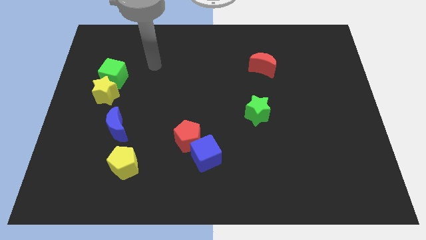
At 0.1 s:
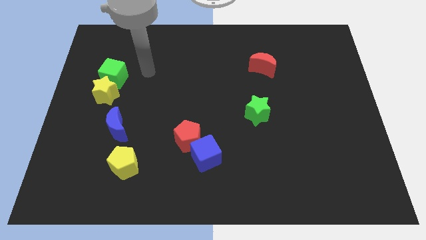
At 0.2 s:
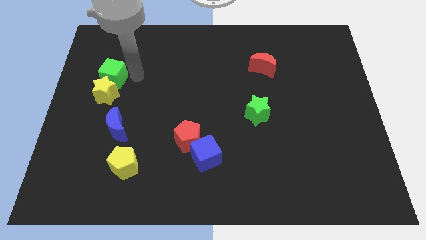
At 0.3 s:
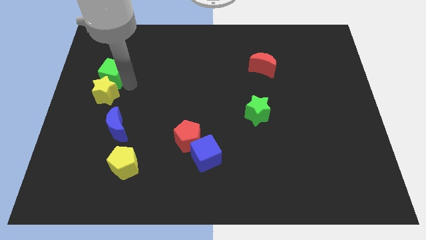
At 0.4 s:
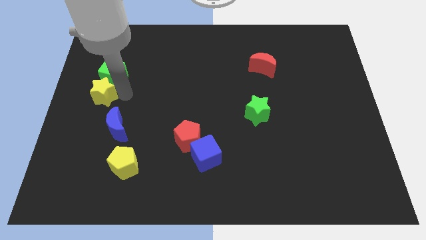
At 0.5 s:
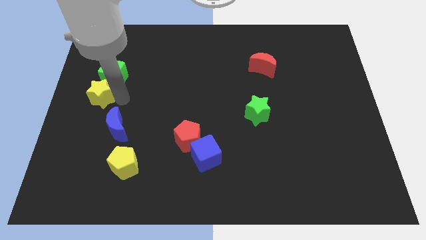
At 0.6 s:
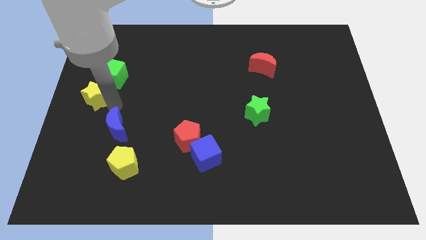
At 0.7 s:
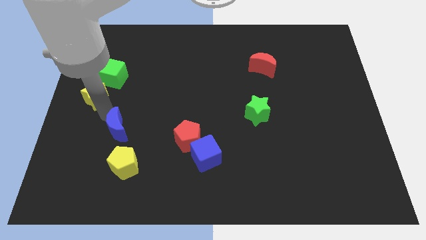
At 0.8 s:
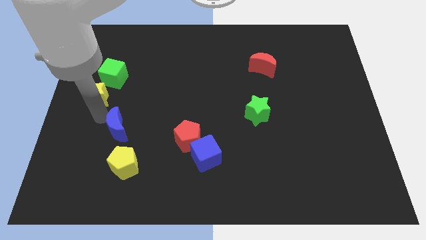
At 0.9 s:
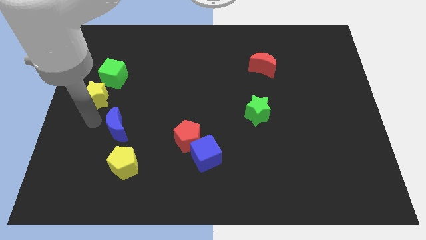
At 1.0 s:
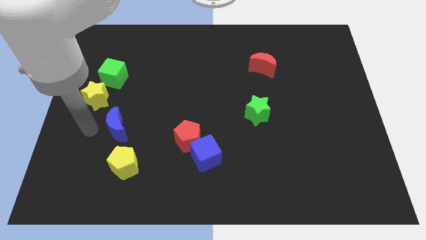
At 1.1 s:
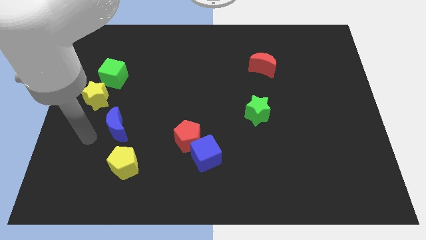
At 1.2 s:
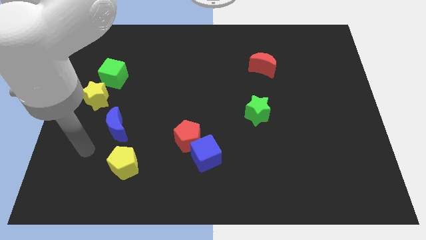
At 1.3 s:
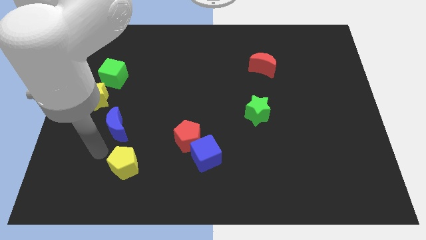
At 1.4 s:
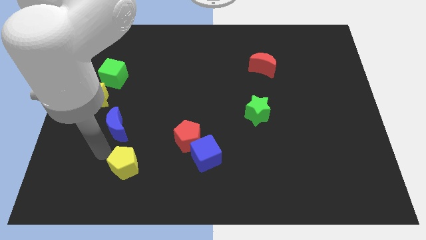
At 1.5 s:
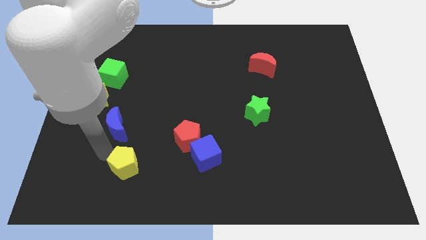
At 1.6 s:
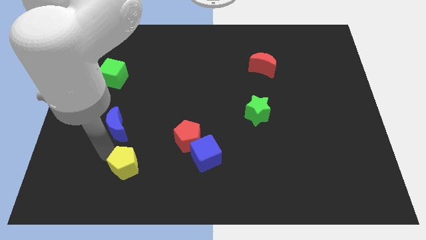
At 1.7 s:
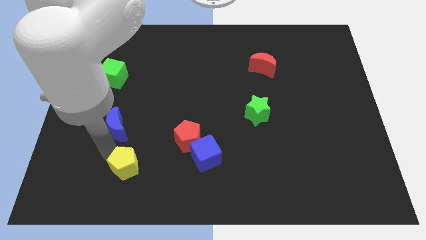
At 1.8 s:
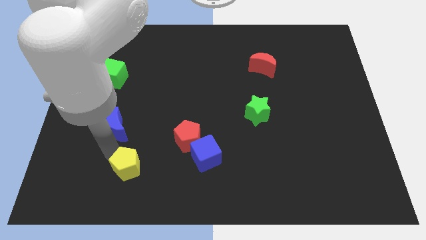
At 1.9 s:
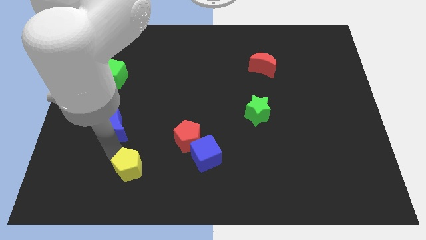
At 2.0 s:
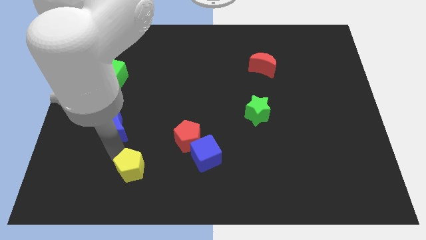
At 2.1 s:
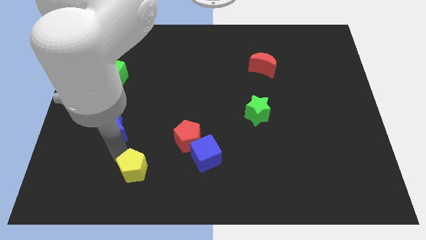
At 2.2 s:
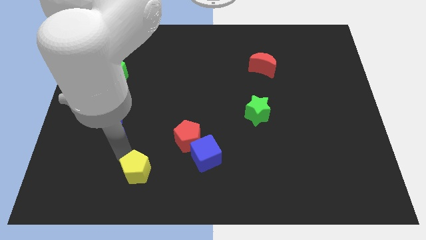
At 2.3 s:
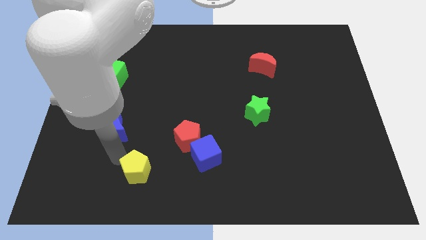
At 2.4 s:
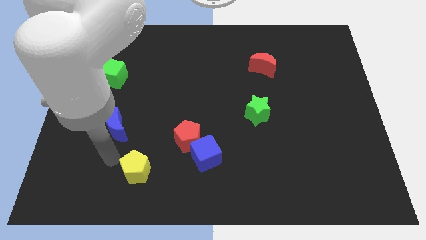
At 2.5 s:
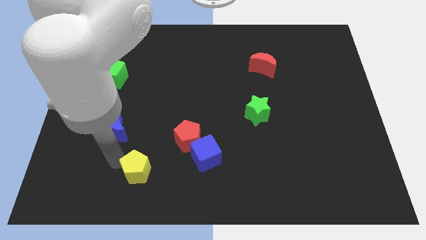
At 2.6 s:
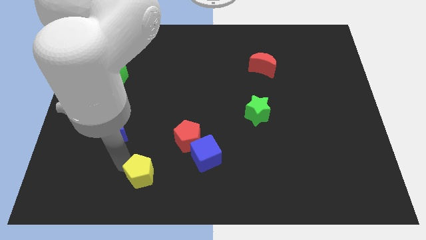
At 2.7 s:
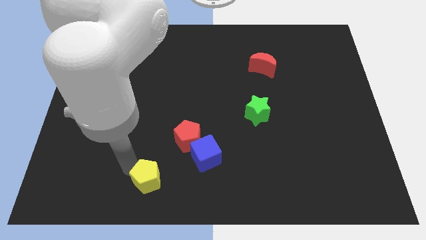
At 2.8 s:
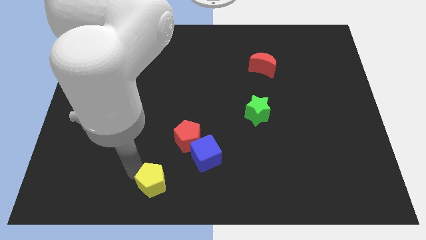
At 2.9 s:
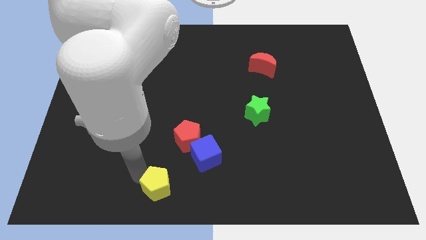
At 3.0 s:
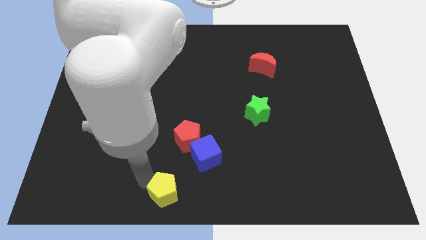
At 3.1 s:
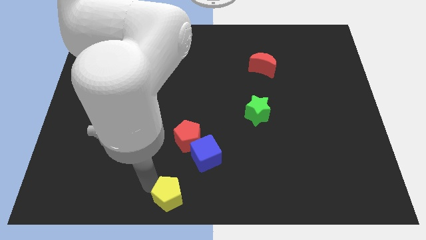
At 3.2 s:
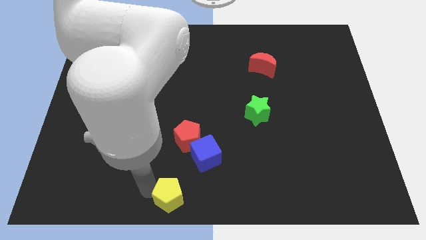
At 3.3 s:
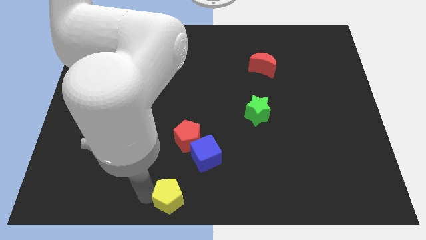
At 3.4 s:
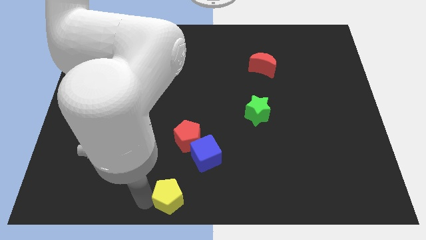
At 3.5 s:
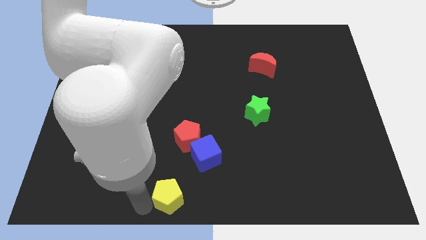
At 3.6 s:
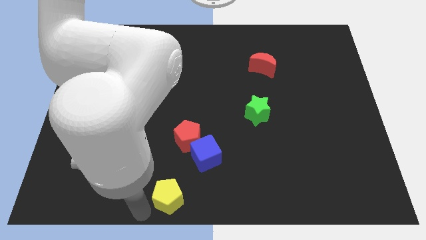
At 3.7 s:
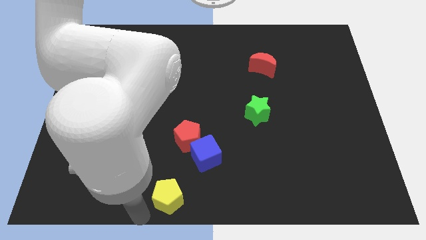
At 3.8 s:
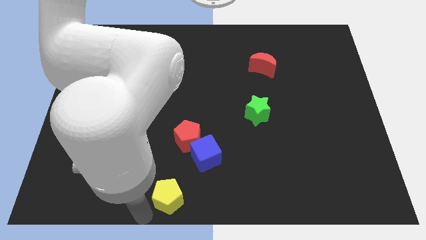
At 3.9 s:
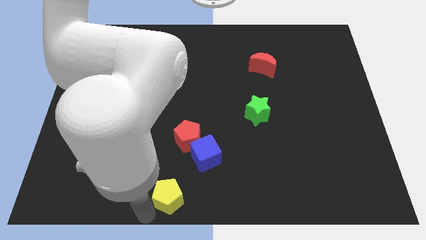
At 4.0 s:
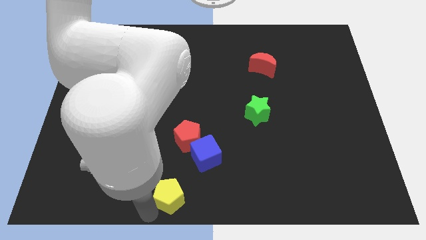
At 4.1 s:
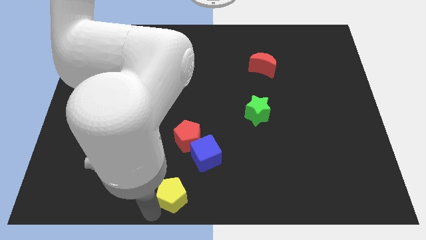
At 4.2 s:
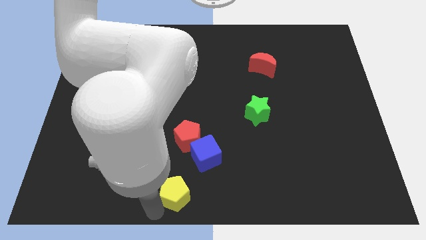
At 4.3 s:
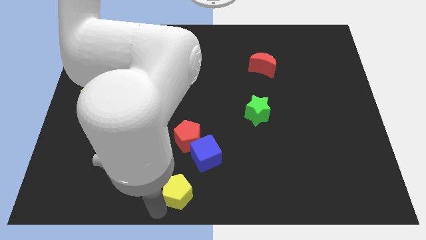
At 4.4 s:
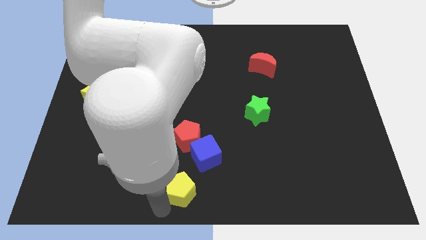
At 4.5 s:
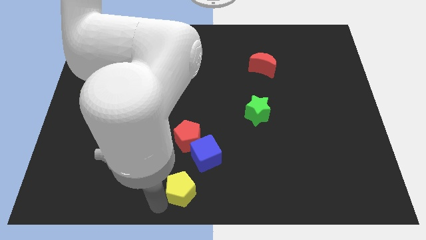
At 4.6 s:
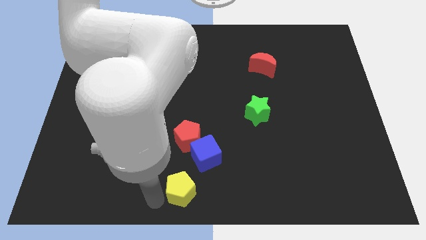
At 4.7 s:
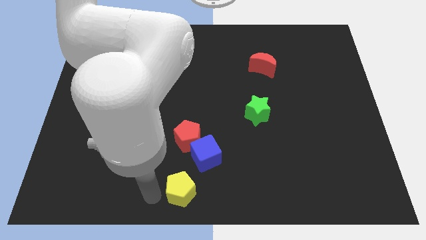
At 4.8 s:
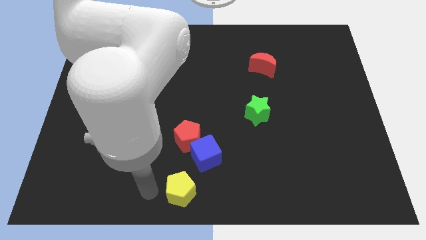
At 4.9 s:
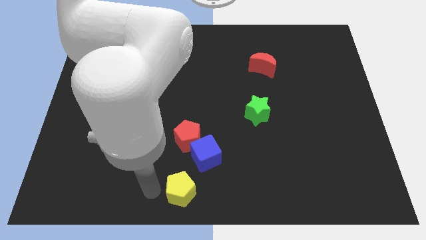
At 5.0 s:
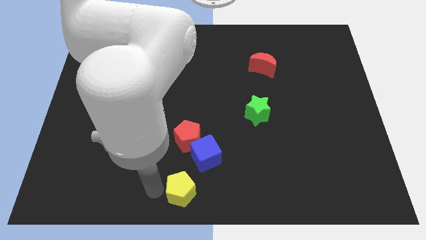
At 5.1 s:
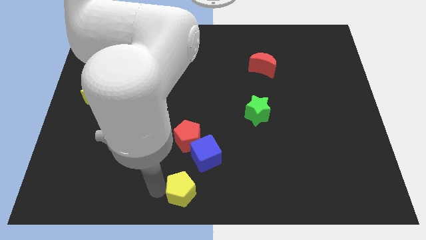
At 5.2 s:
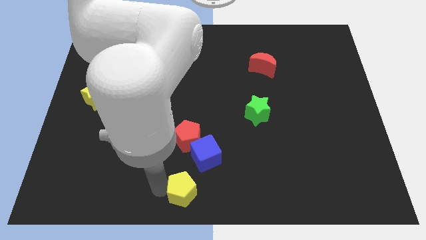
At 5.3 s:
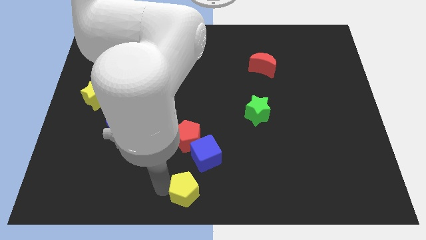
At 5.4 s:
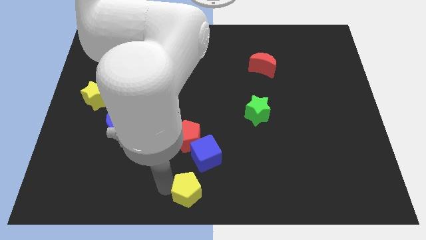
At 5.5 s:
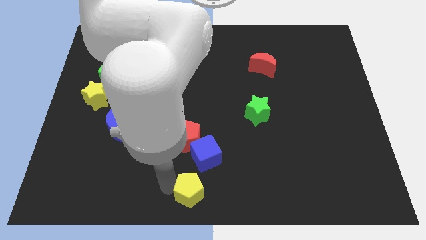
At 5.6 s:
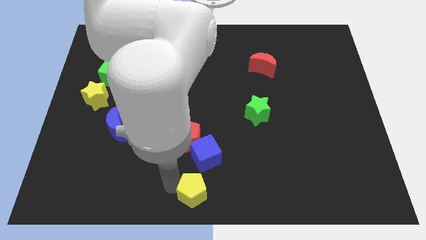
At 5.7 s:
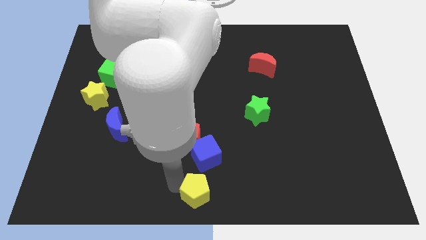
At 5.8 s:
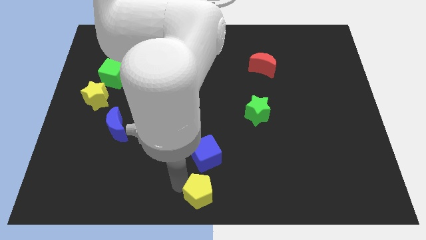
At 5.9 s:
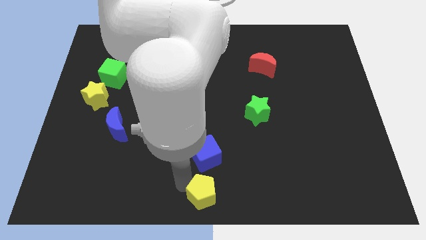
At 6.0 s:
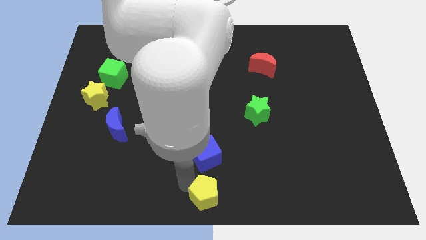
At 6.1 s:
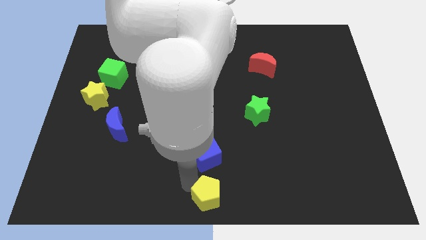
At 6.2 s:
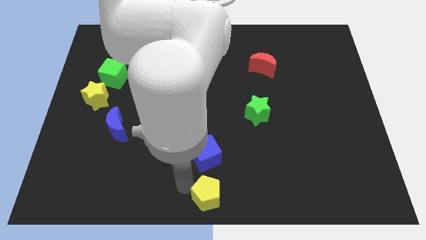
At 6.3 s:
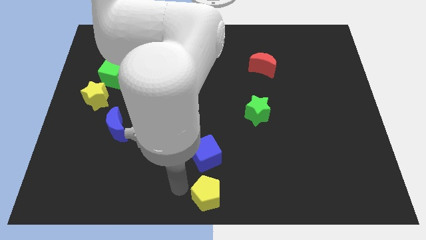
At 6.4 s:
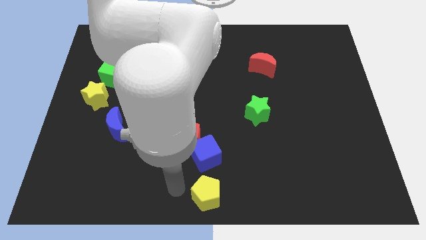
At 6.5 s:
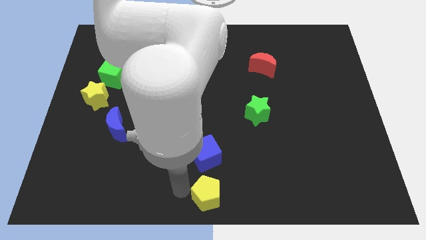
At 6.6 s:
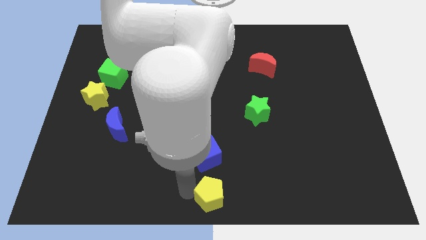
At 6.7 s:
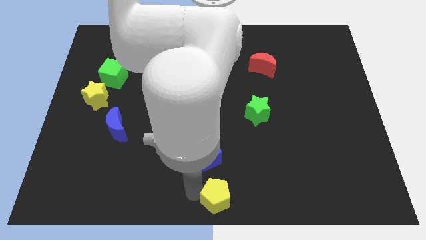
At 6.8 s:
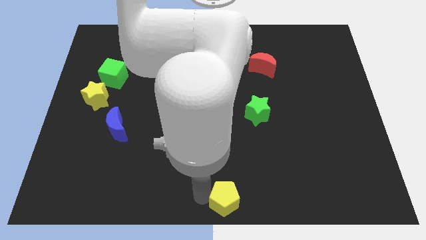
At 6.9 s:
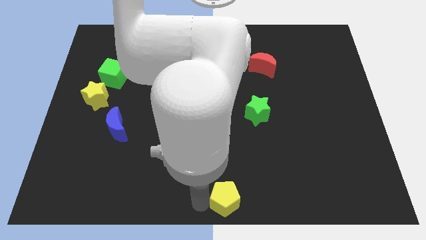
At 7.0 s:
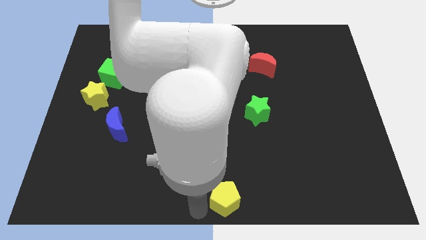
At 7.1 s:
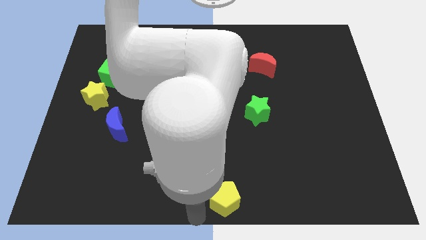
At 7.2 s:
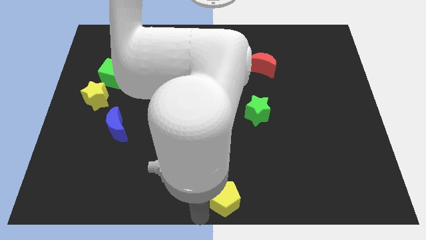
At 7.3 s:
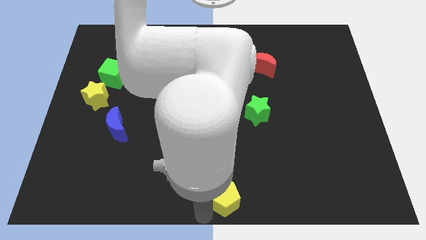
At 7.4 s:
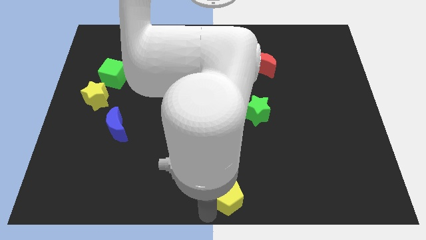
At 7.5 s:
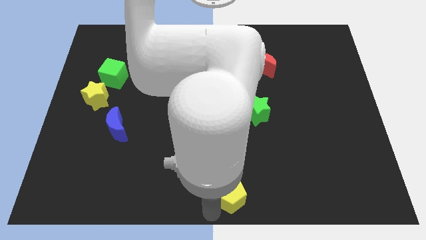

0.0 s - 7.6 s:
slide the yellow pentagon right

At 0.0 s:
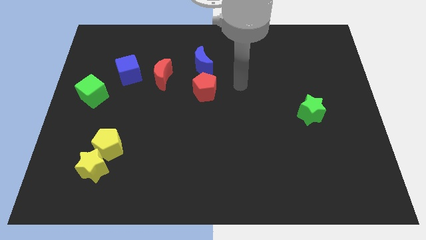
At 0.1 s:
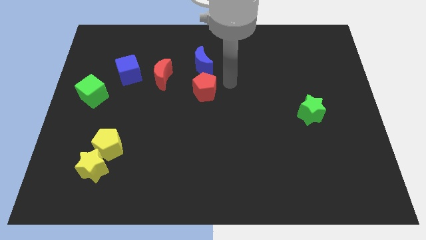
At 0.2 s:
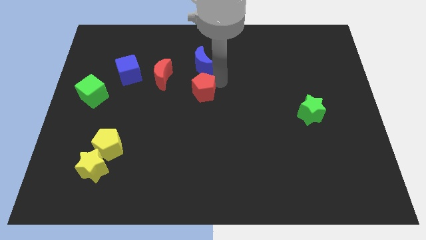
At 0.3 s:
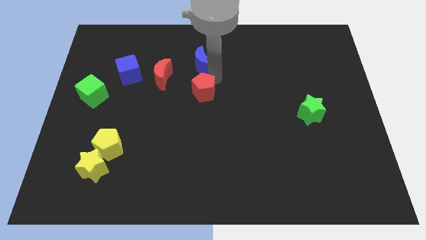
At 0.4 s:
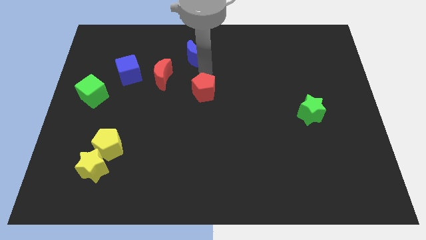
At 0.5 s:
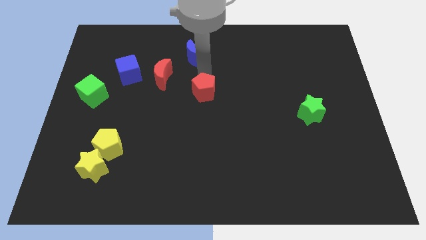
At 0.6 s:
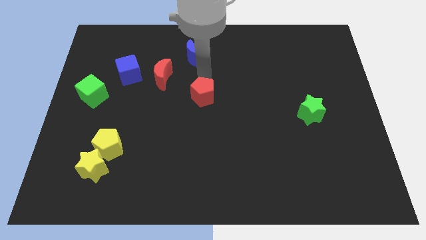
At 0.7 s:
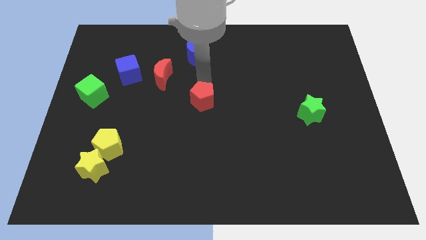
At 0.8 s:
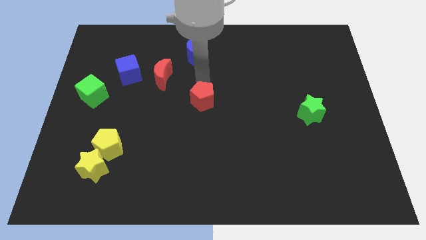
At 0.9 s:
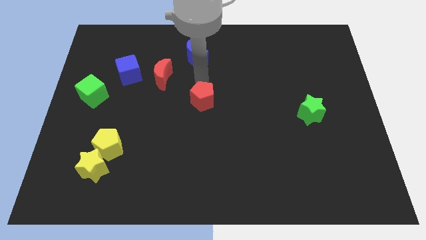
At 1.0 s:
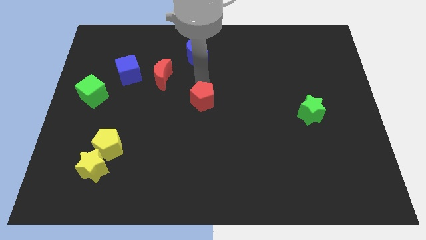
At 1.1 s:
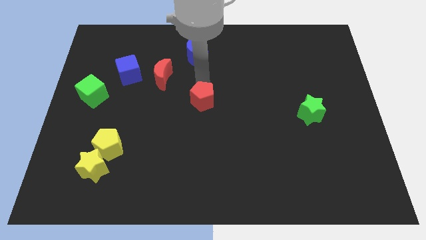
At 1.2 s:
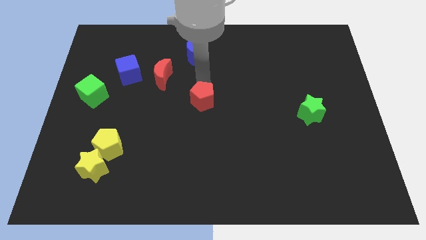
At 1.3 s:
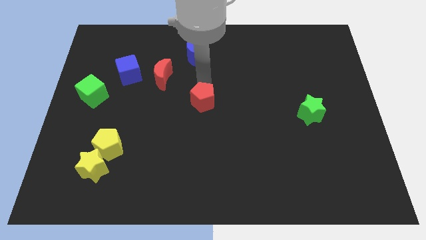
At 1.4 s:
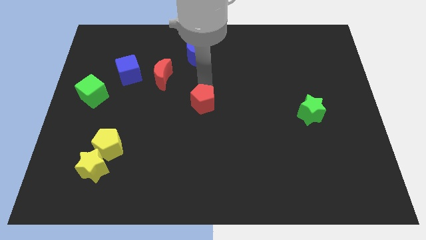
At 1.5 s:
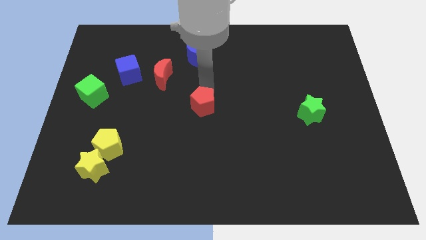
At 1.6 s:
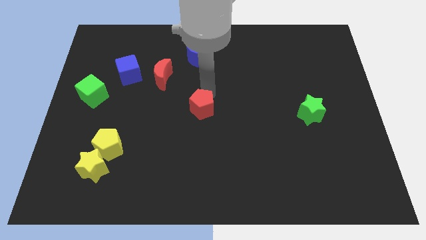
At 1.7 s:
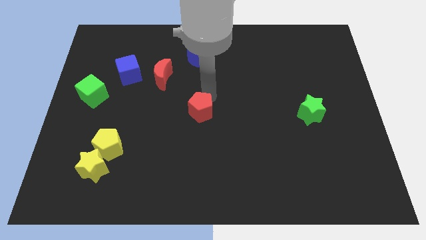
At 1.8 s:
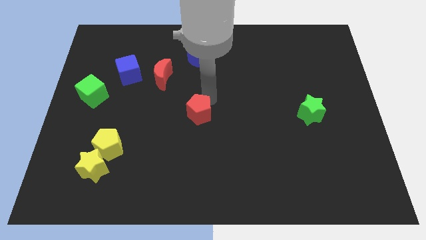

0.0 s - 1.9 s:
move the red pentagon downwards a bit
